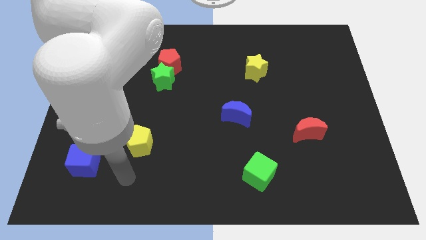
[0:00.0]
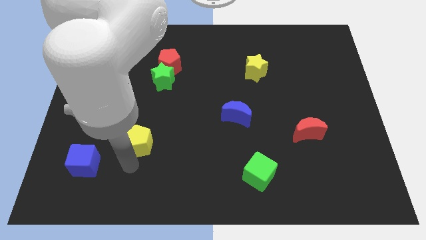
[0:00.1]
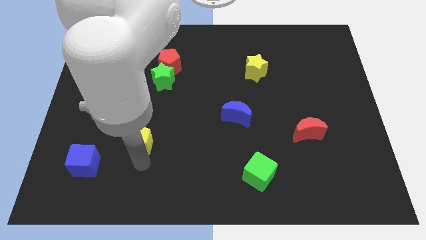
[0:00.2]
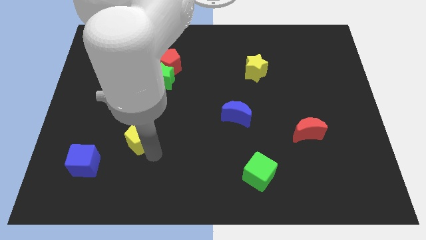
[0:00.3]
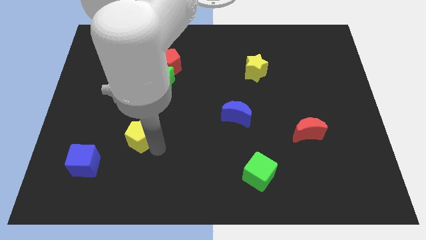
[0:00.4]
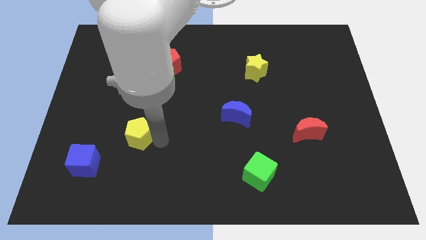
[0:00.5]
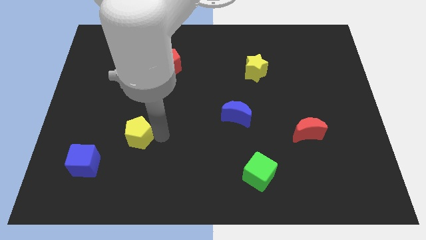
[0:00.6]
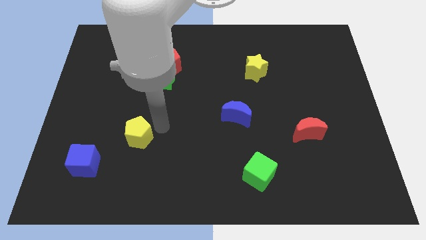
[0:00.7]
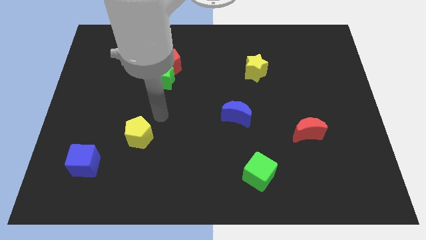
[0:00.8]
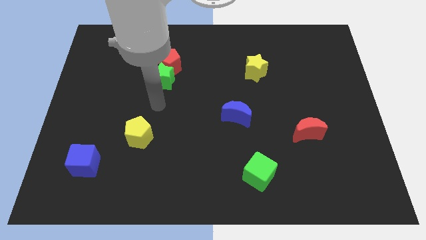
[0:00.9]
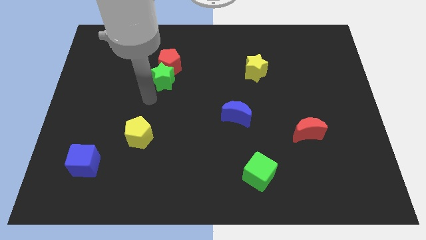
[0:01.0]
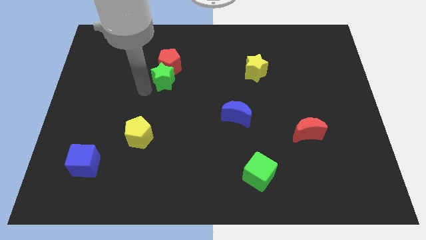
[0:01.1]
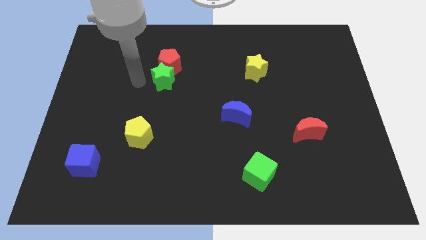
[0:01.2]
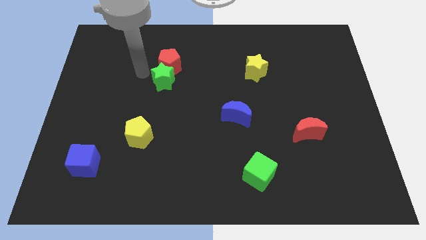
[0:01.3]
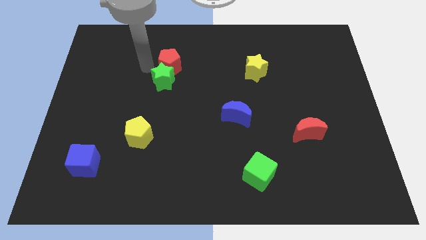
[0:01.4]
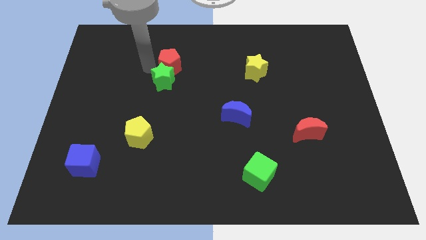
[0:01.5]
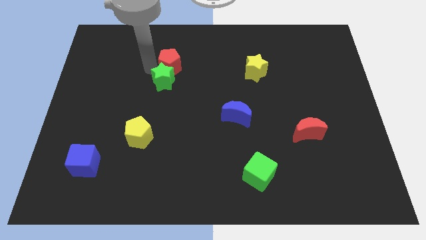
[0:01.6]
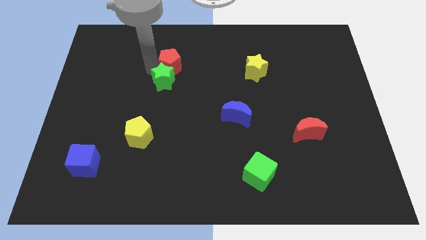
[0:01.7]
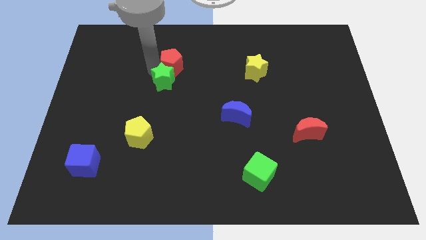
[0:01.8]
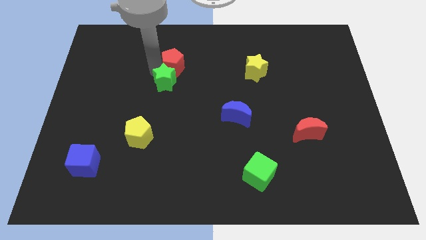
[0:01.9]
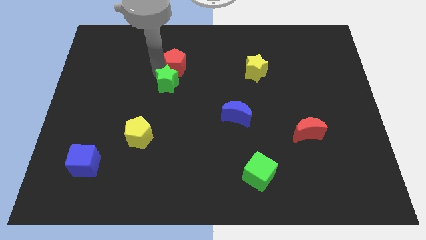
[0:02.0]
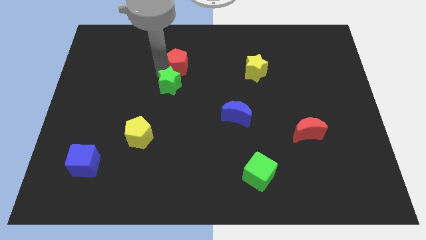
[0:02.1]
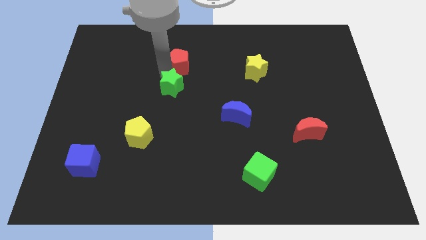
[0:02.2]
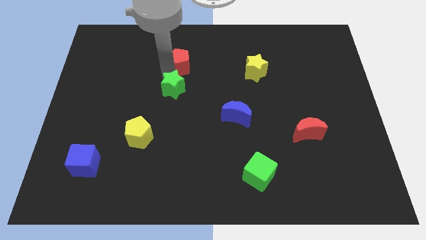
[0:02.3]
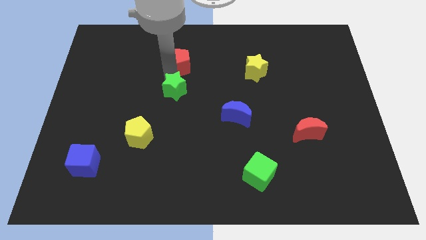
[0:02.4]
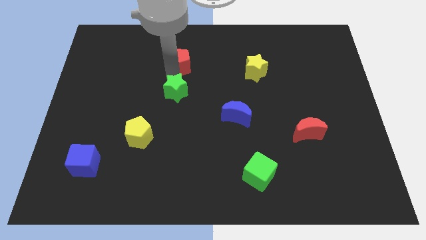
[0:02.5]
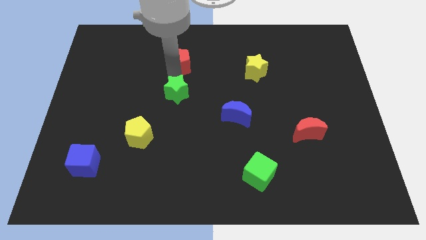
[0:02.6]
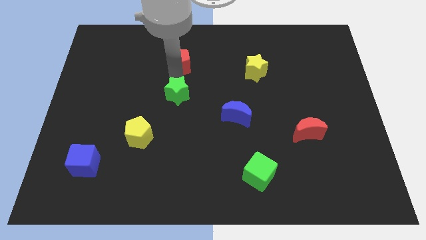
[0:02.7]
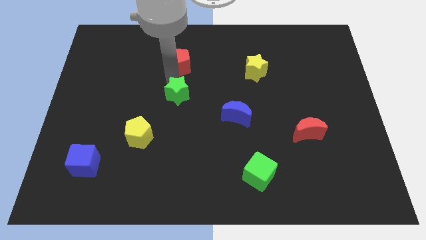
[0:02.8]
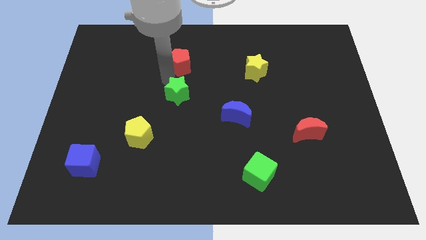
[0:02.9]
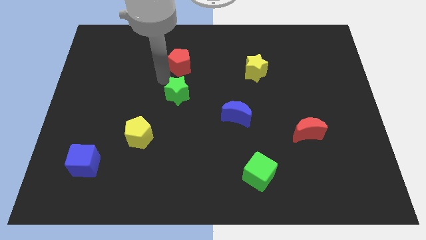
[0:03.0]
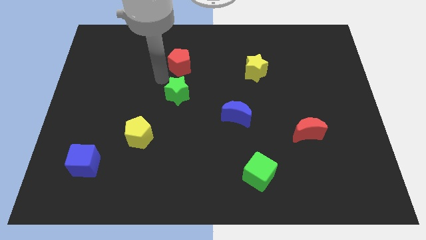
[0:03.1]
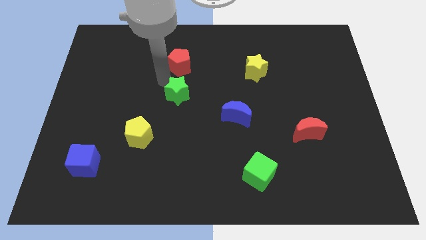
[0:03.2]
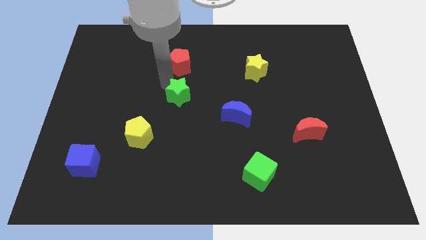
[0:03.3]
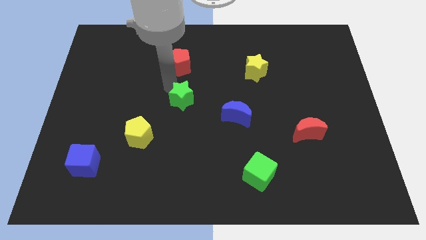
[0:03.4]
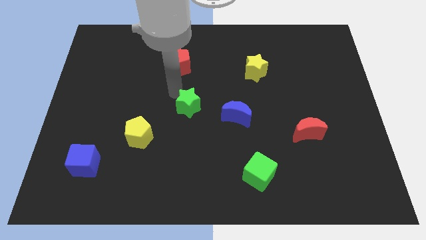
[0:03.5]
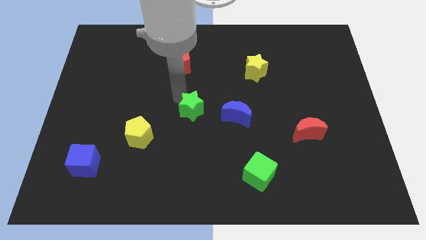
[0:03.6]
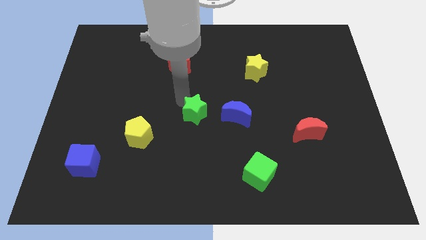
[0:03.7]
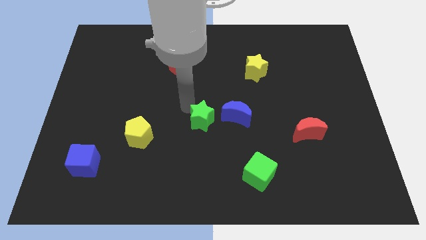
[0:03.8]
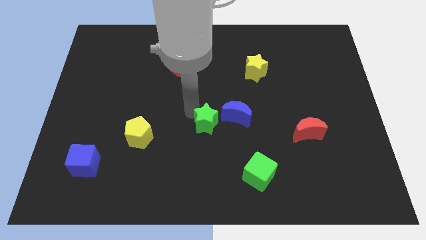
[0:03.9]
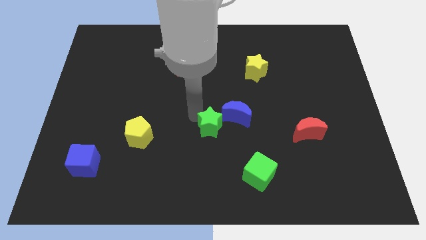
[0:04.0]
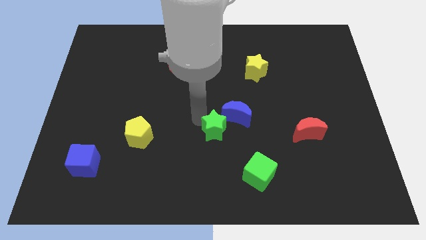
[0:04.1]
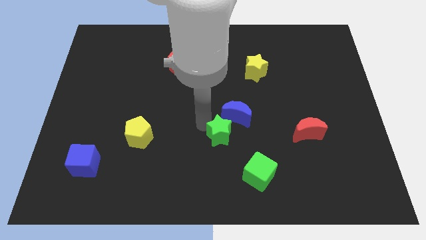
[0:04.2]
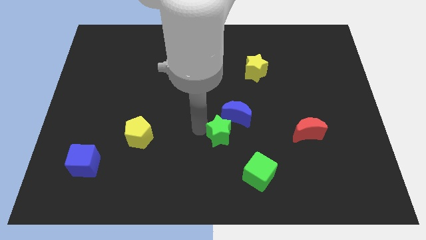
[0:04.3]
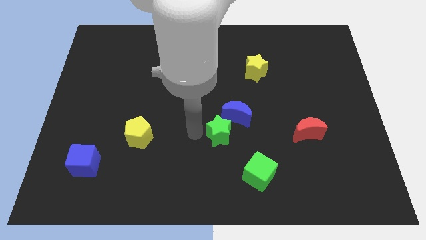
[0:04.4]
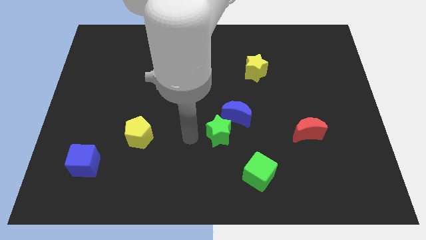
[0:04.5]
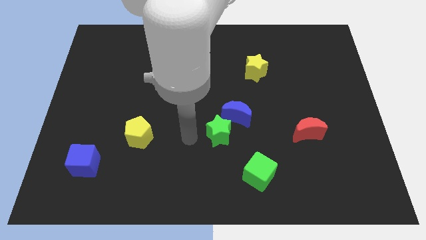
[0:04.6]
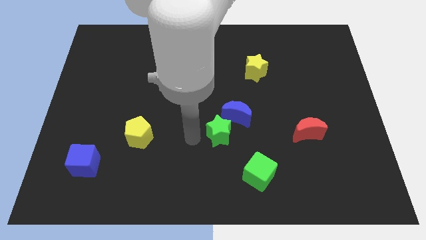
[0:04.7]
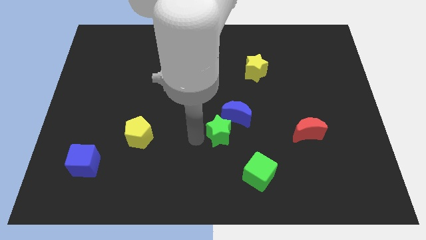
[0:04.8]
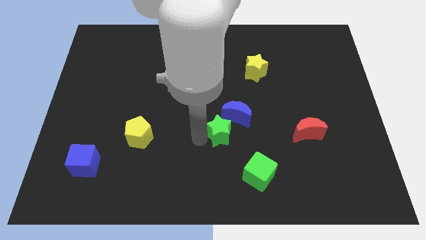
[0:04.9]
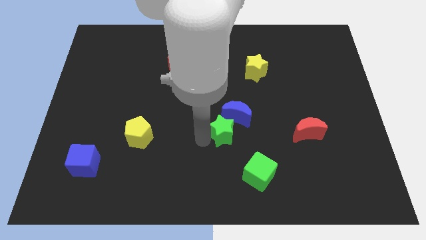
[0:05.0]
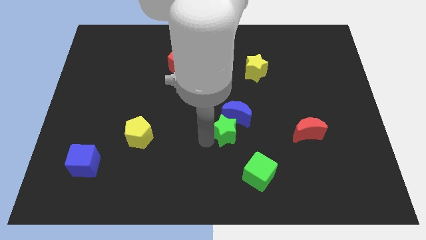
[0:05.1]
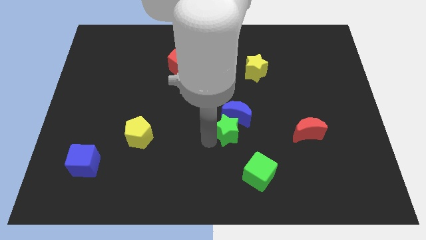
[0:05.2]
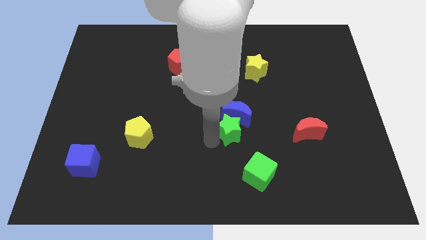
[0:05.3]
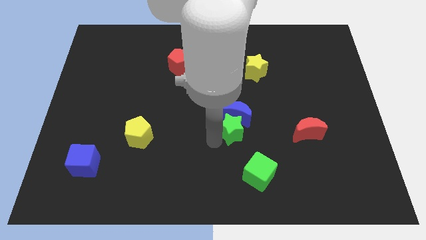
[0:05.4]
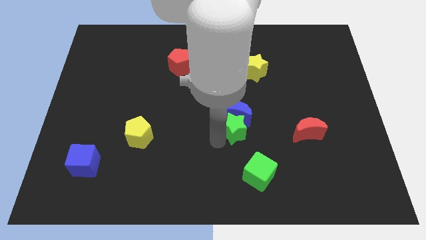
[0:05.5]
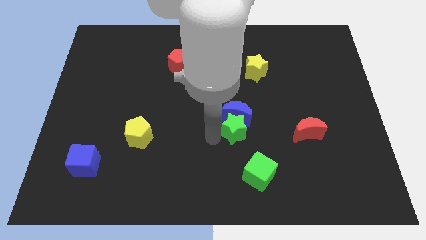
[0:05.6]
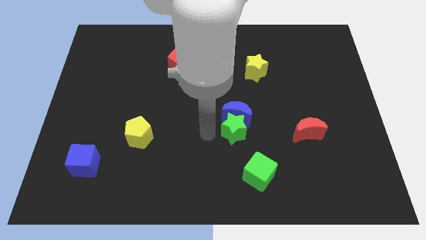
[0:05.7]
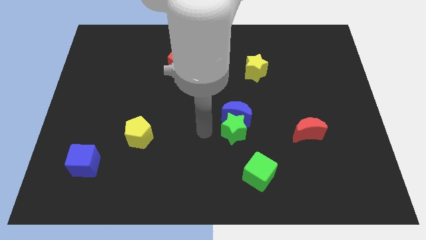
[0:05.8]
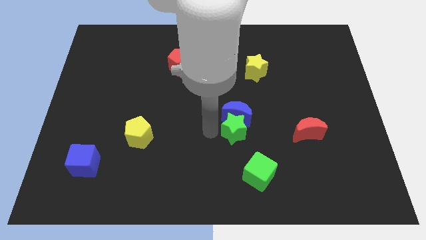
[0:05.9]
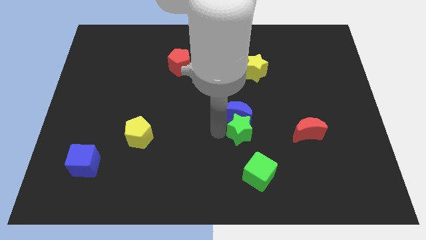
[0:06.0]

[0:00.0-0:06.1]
slide the green star to the left of the red moon

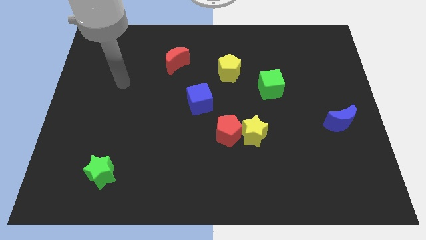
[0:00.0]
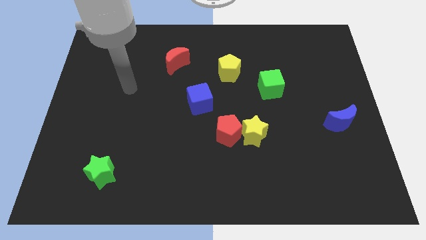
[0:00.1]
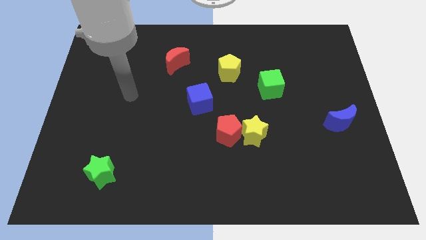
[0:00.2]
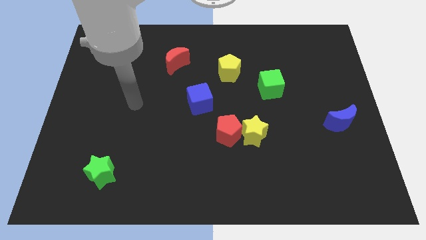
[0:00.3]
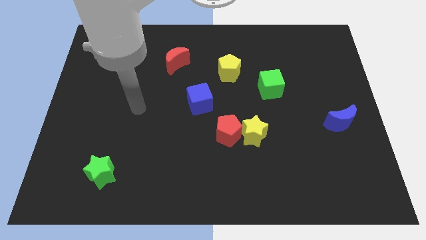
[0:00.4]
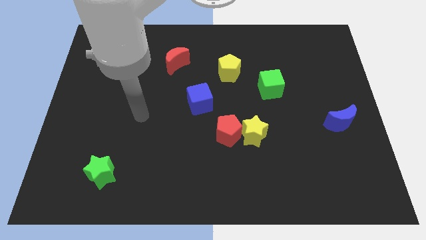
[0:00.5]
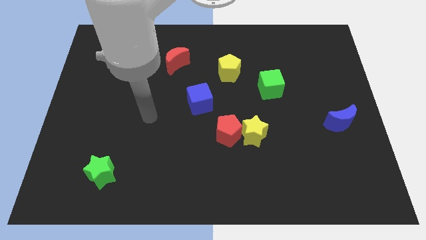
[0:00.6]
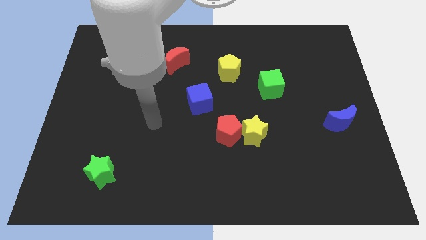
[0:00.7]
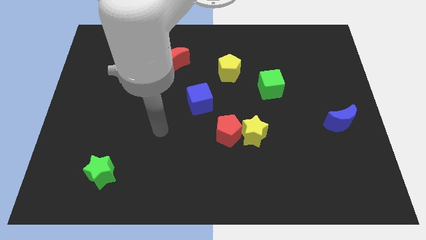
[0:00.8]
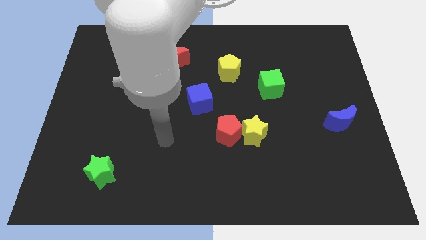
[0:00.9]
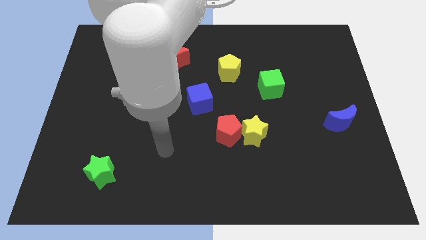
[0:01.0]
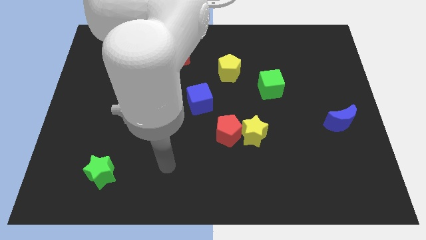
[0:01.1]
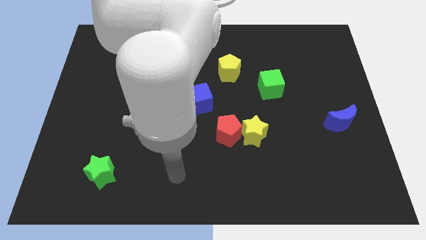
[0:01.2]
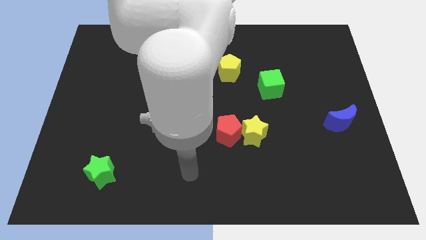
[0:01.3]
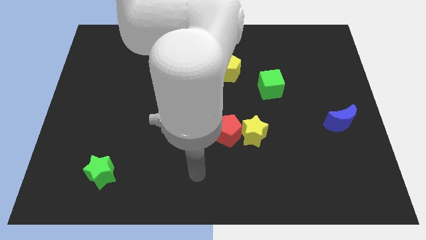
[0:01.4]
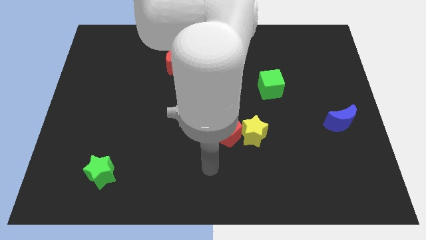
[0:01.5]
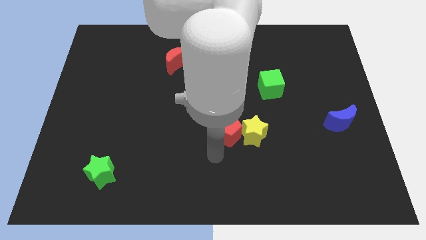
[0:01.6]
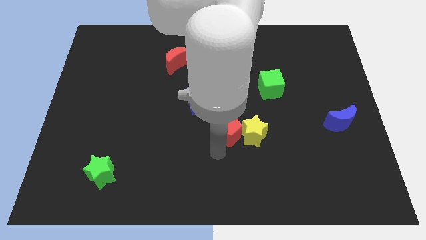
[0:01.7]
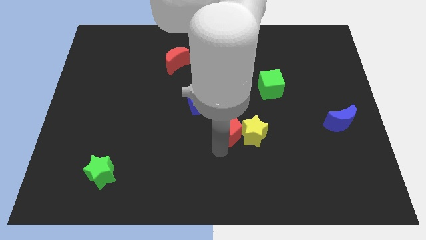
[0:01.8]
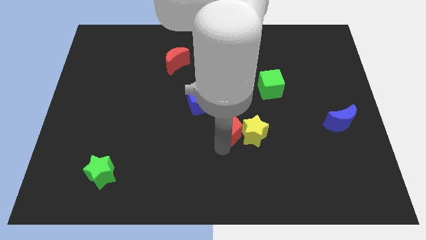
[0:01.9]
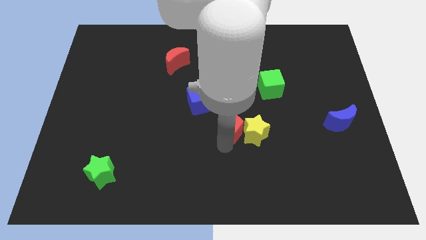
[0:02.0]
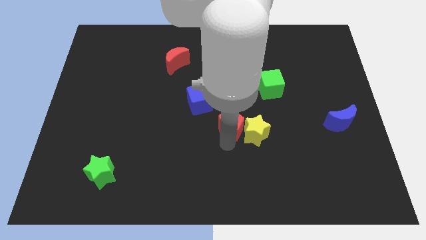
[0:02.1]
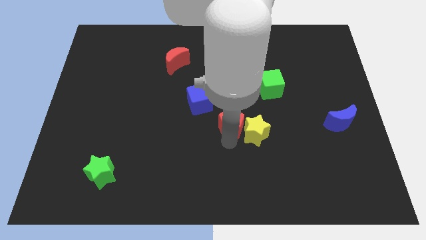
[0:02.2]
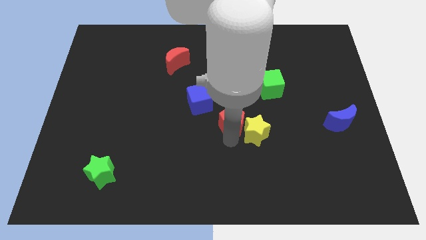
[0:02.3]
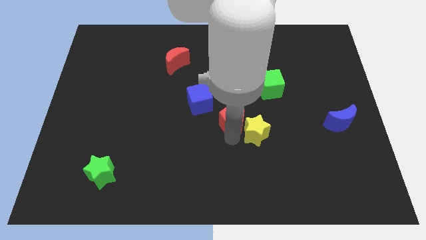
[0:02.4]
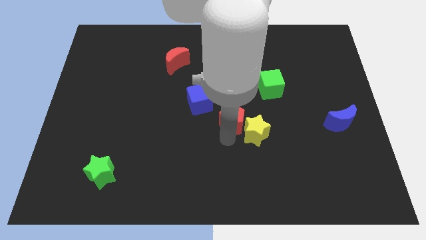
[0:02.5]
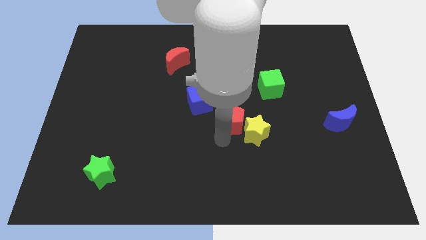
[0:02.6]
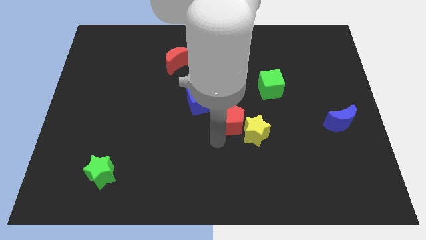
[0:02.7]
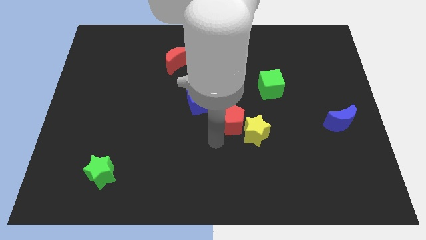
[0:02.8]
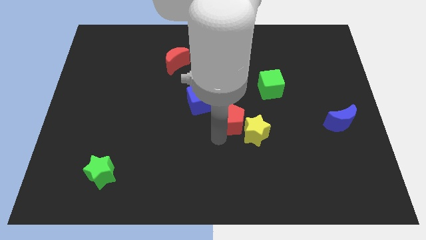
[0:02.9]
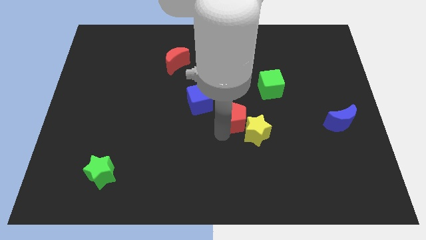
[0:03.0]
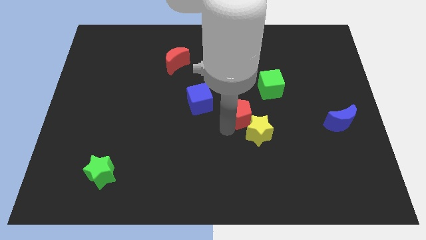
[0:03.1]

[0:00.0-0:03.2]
move the red pentagon right of the blue cube
